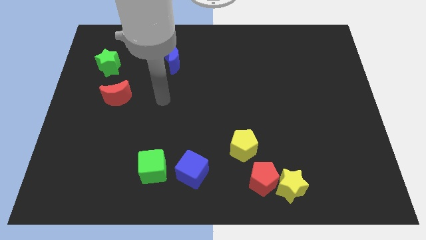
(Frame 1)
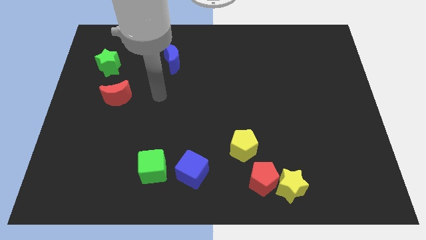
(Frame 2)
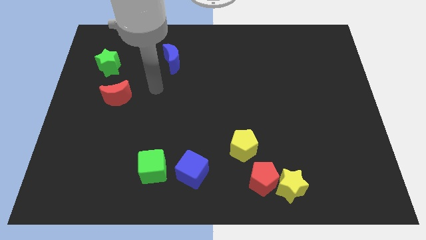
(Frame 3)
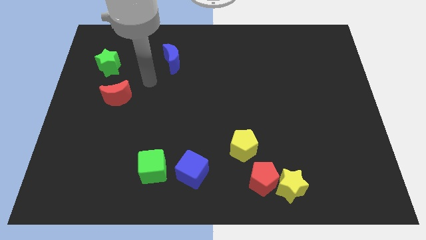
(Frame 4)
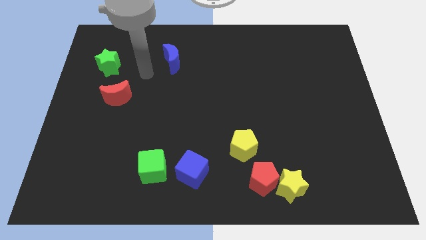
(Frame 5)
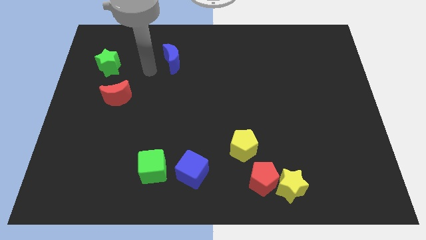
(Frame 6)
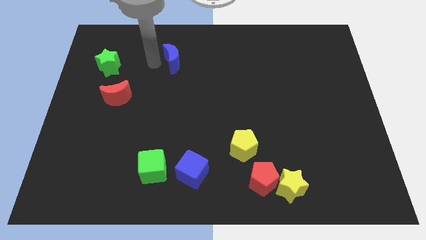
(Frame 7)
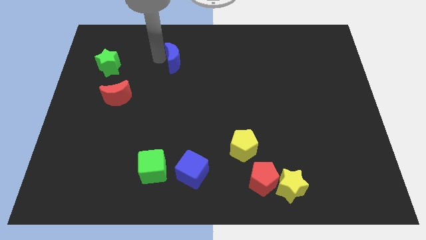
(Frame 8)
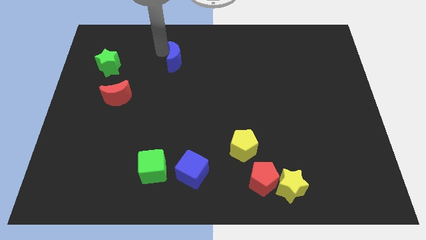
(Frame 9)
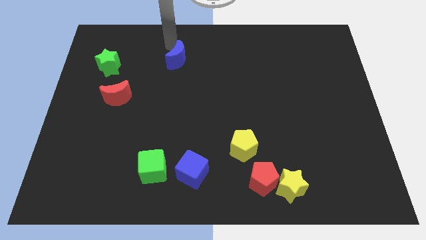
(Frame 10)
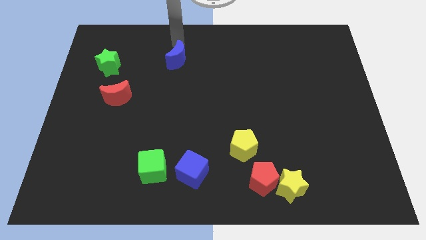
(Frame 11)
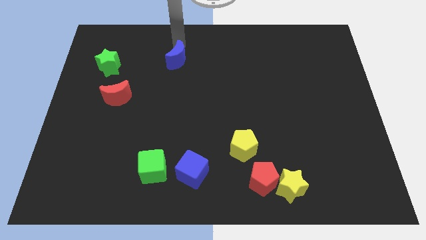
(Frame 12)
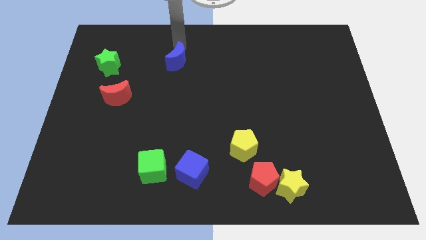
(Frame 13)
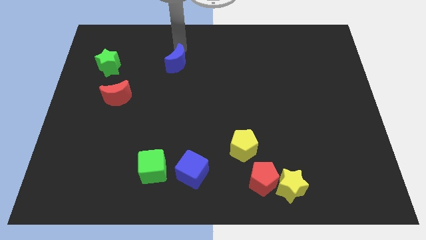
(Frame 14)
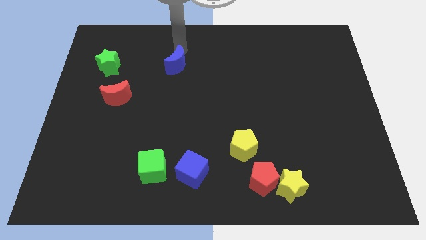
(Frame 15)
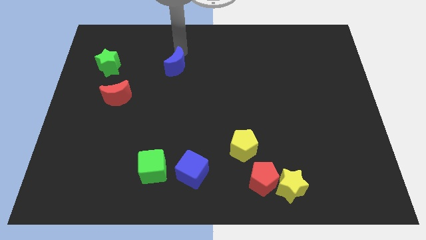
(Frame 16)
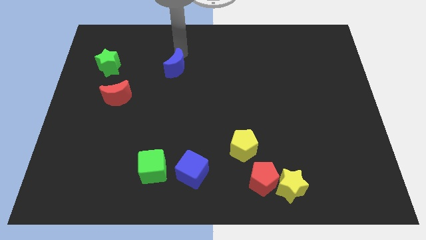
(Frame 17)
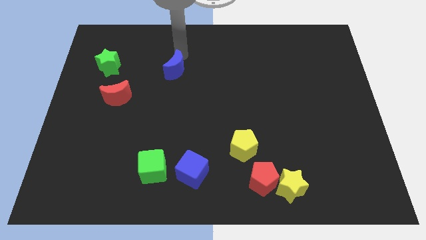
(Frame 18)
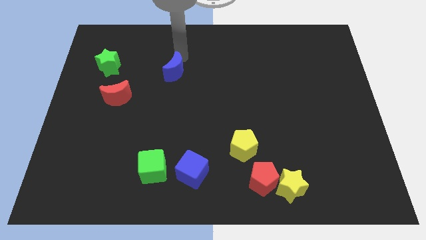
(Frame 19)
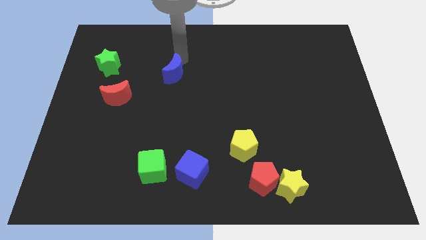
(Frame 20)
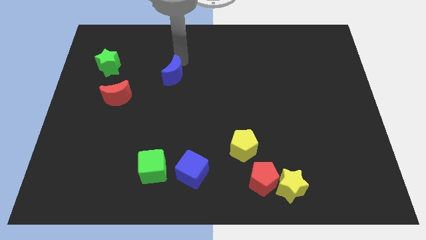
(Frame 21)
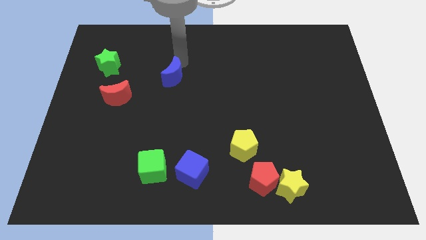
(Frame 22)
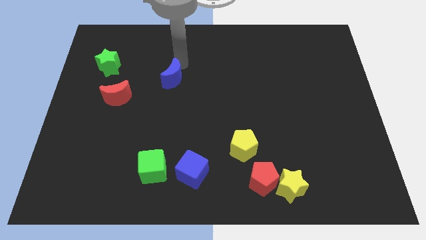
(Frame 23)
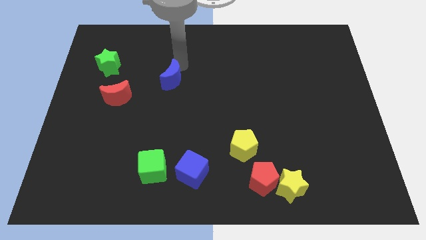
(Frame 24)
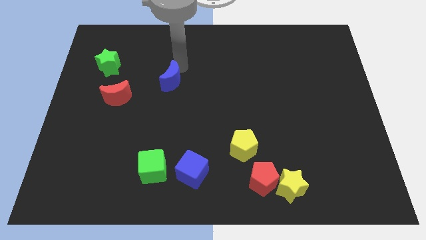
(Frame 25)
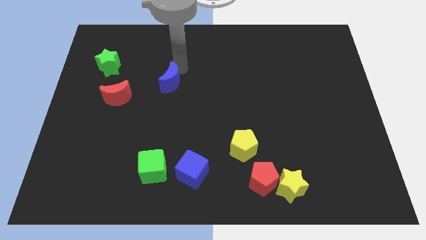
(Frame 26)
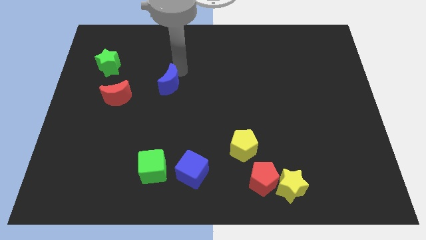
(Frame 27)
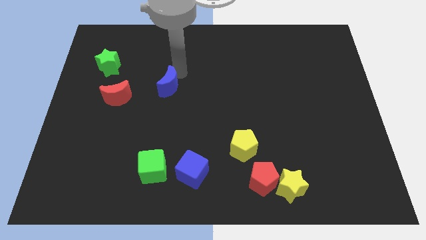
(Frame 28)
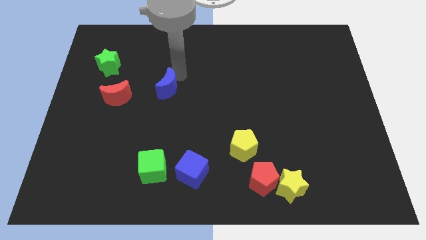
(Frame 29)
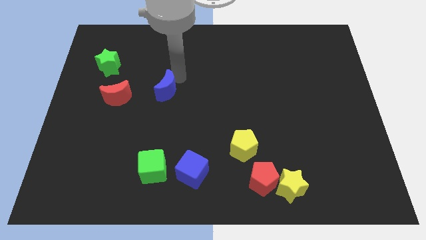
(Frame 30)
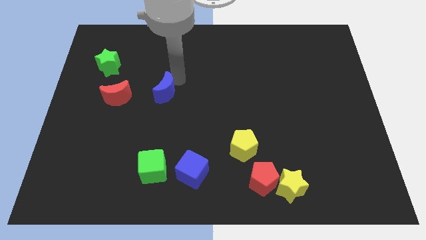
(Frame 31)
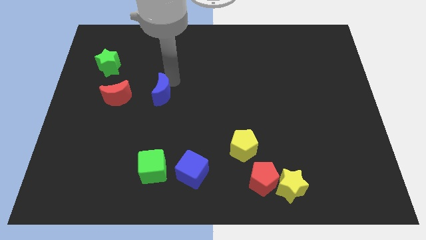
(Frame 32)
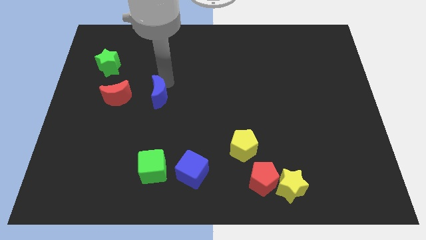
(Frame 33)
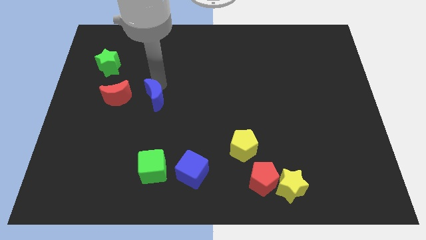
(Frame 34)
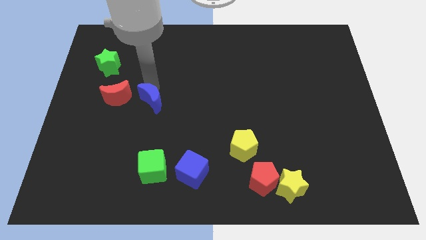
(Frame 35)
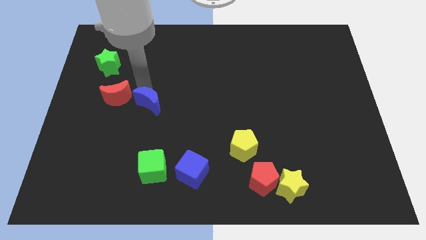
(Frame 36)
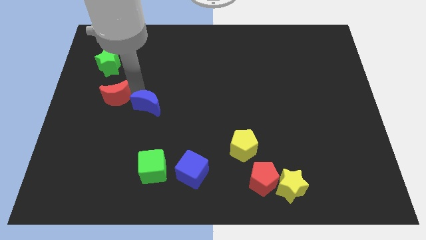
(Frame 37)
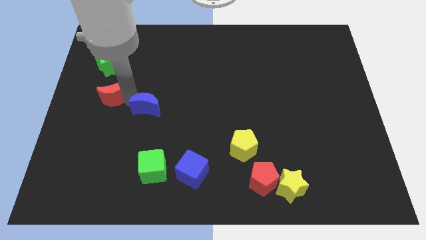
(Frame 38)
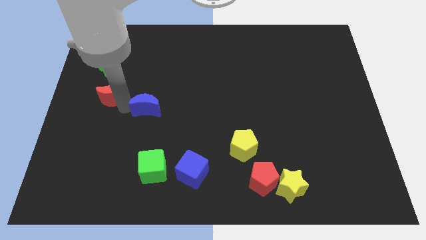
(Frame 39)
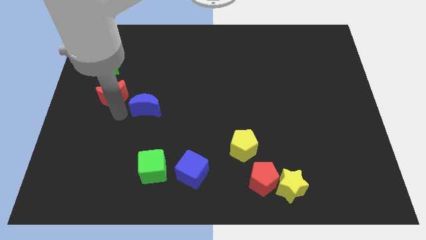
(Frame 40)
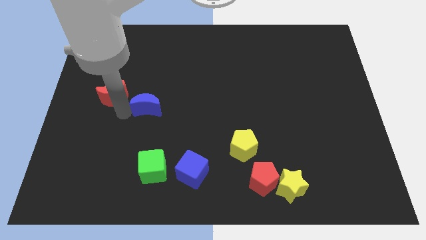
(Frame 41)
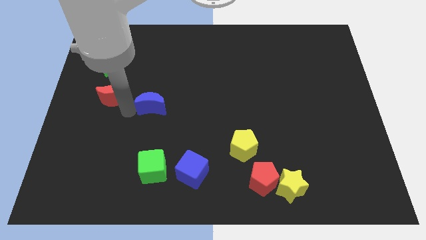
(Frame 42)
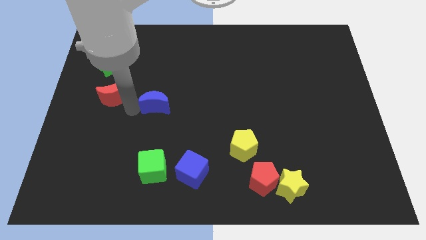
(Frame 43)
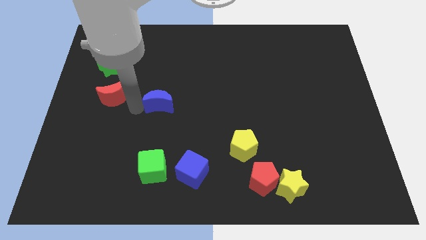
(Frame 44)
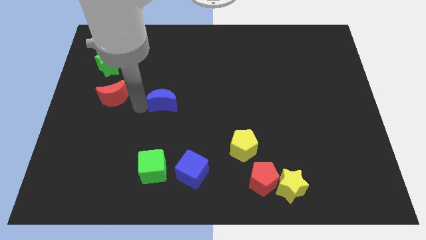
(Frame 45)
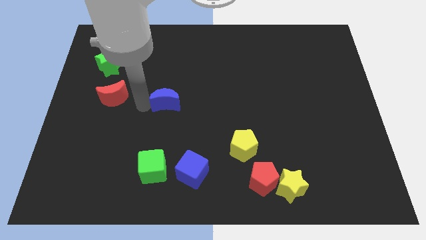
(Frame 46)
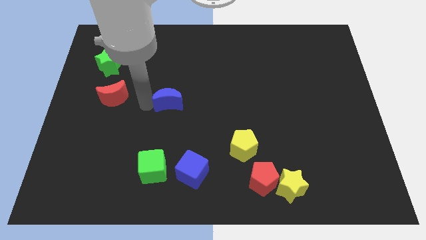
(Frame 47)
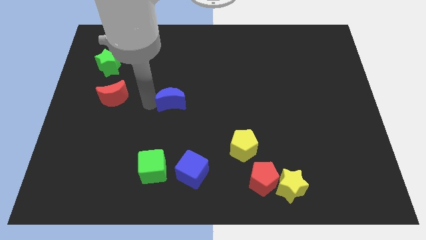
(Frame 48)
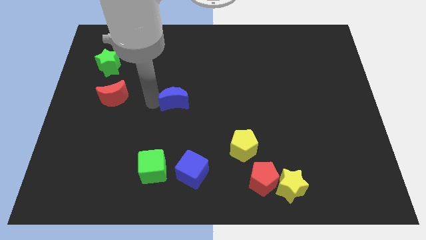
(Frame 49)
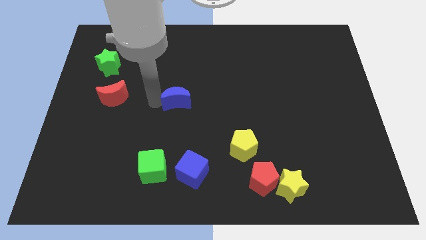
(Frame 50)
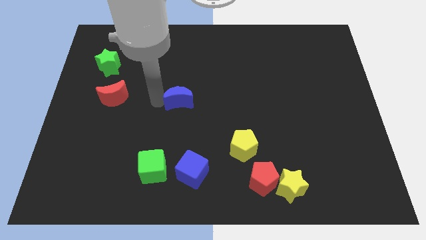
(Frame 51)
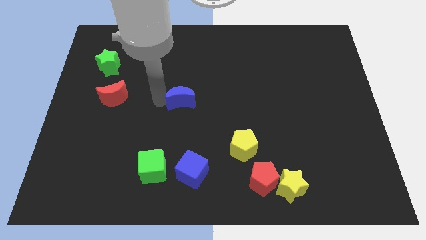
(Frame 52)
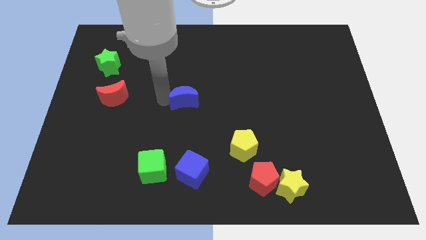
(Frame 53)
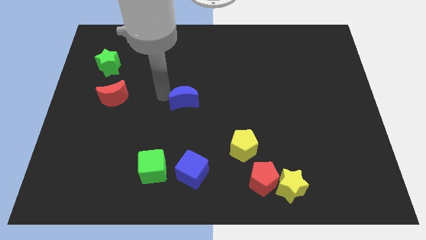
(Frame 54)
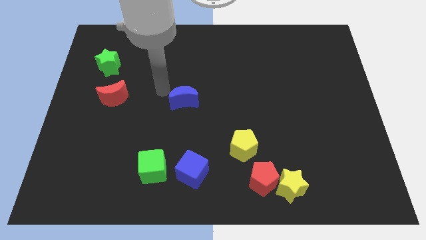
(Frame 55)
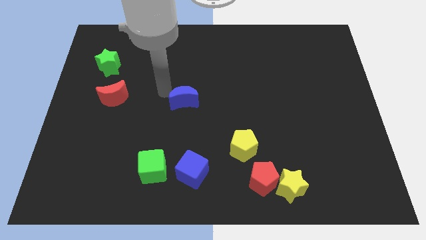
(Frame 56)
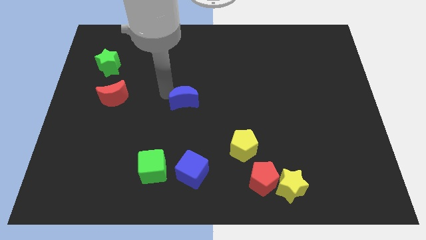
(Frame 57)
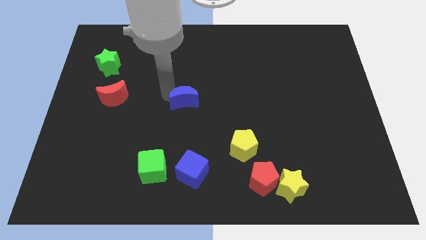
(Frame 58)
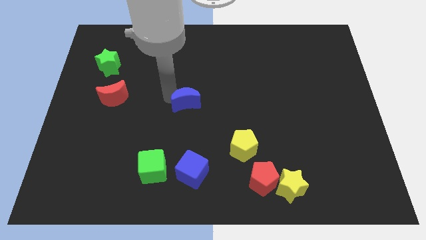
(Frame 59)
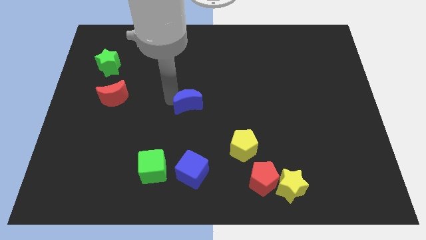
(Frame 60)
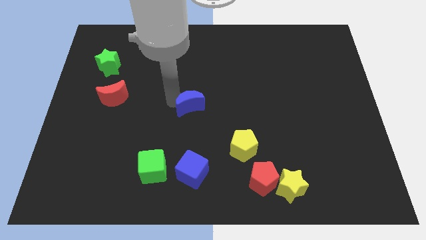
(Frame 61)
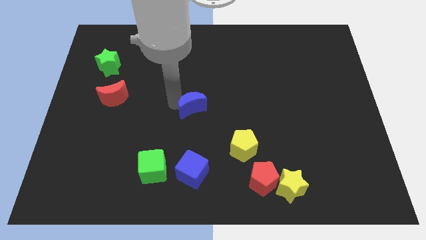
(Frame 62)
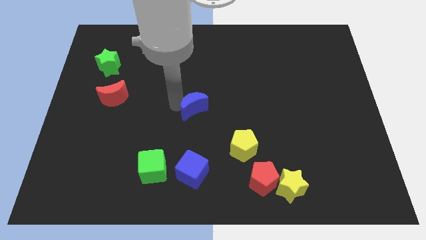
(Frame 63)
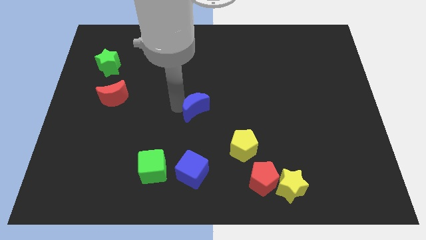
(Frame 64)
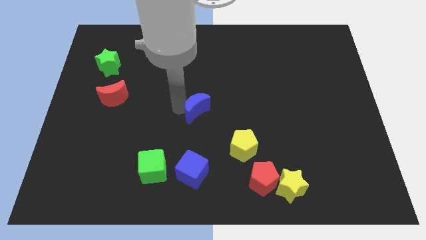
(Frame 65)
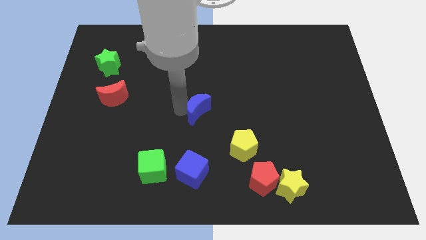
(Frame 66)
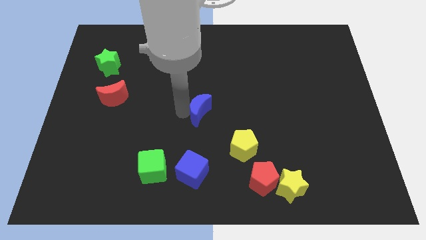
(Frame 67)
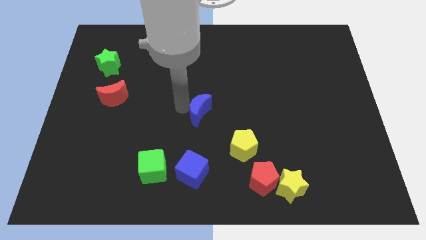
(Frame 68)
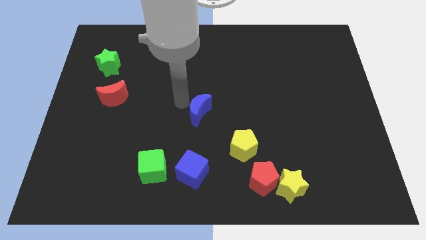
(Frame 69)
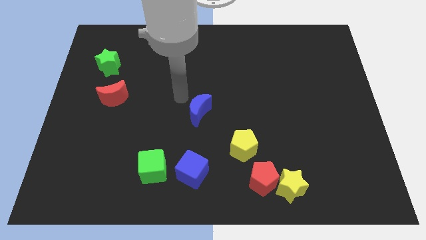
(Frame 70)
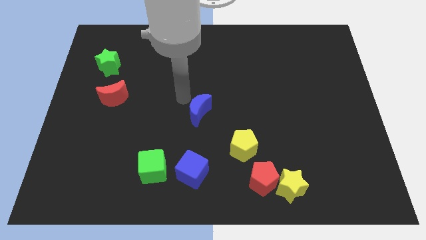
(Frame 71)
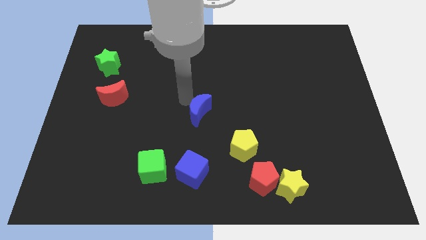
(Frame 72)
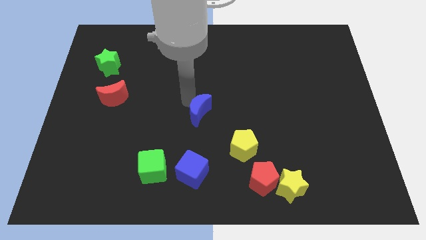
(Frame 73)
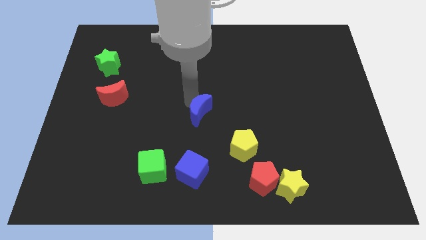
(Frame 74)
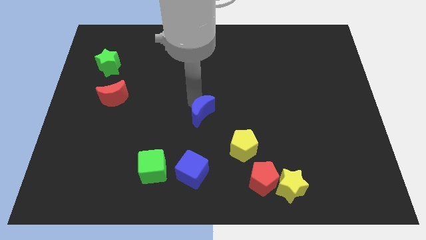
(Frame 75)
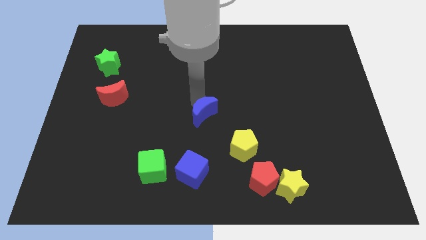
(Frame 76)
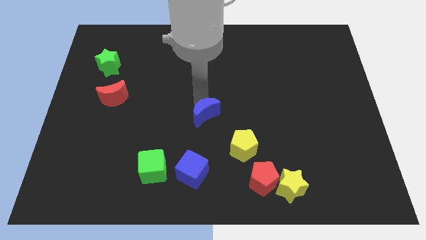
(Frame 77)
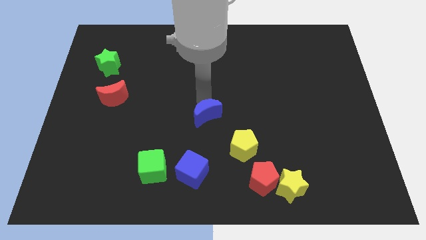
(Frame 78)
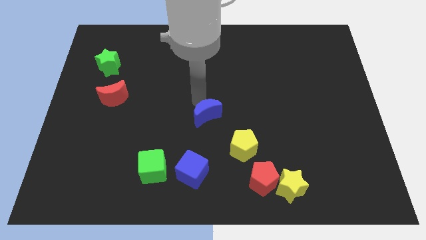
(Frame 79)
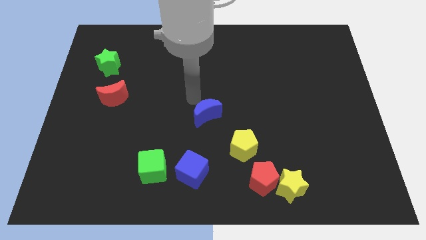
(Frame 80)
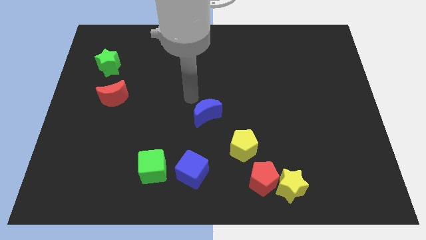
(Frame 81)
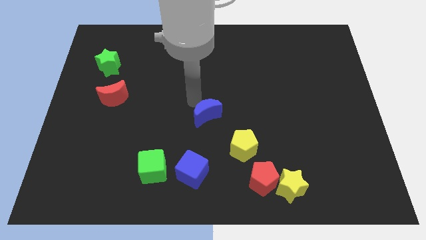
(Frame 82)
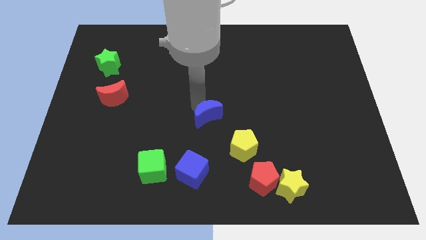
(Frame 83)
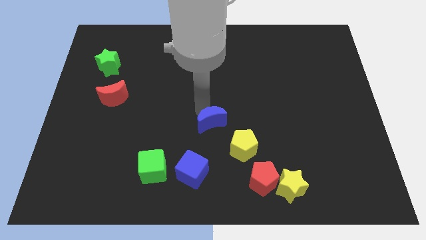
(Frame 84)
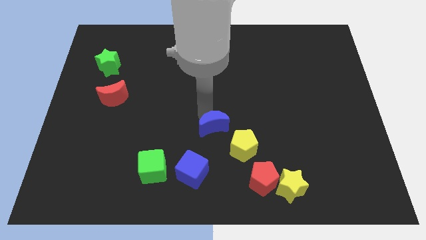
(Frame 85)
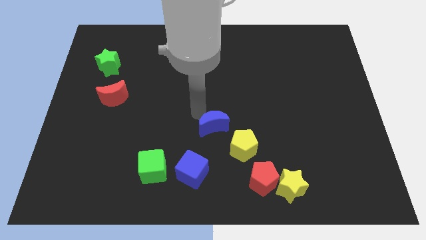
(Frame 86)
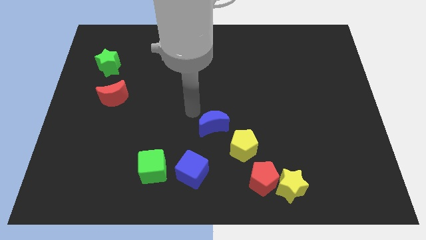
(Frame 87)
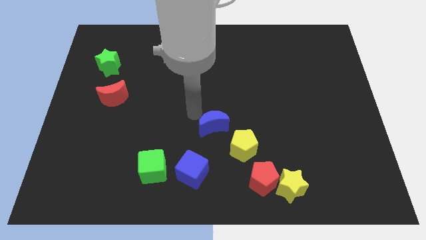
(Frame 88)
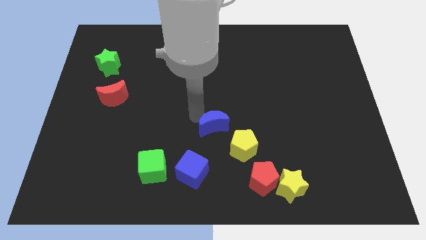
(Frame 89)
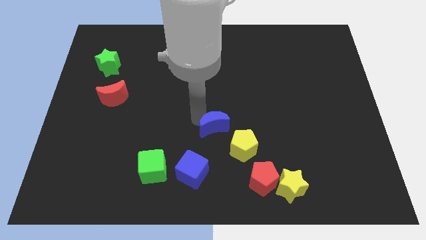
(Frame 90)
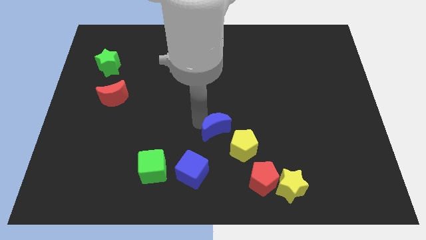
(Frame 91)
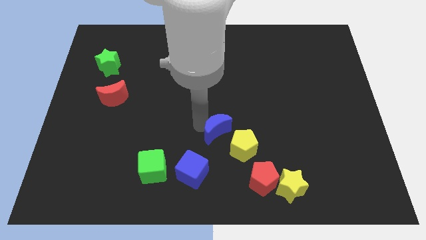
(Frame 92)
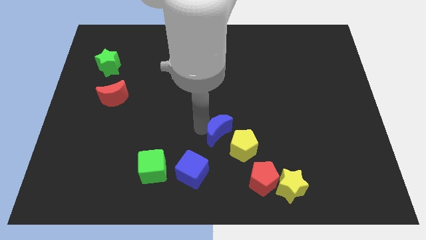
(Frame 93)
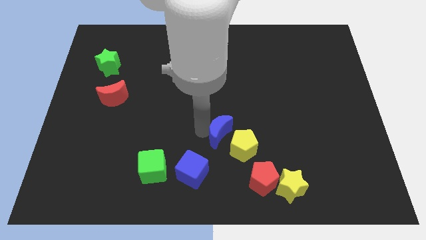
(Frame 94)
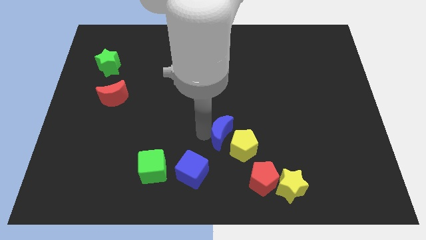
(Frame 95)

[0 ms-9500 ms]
move the blue moon to the yellow pentagon
